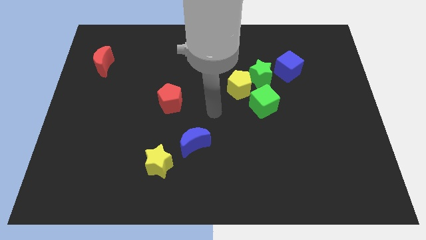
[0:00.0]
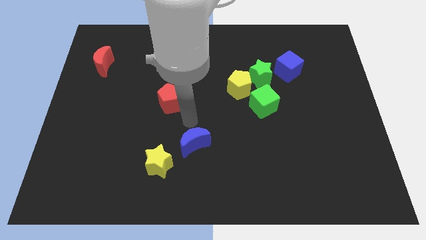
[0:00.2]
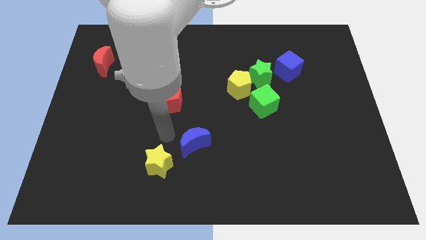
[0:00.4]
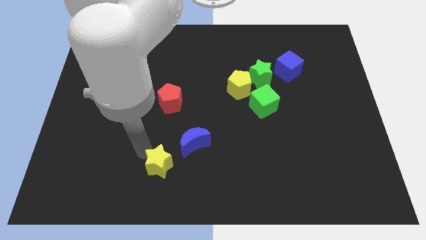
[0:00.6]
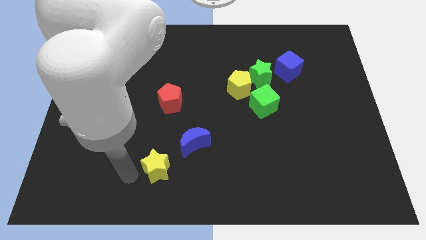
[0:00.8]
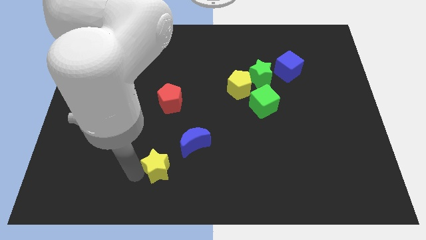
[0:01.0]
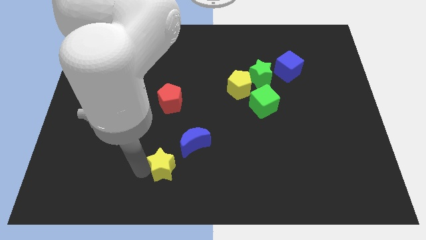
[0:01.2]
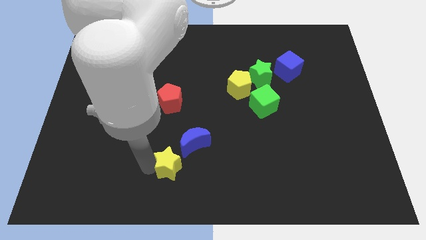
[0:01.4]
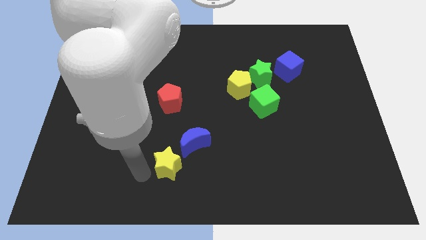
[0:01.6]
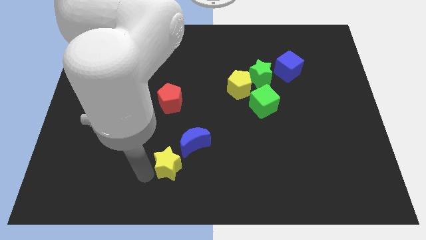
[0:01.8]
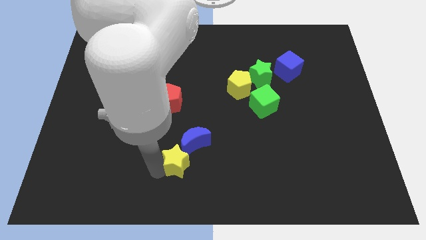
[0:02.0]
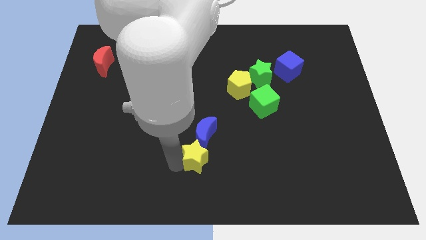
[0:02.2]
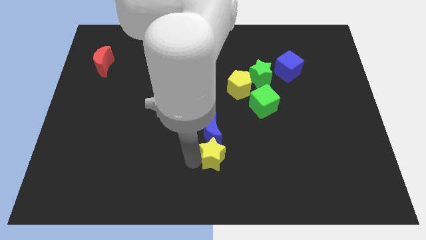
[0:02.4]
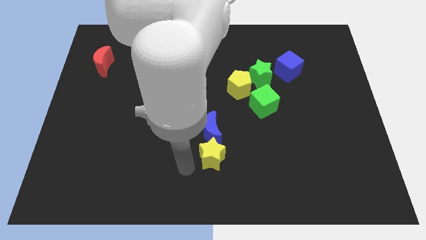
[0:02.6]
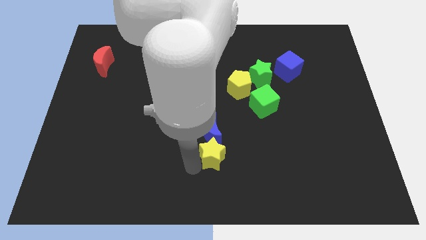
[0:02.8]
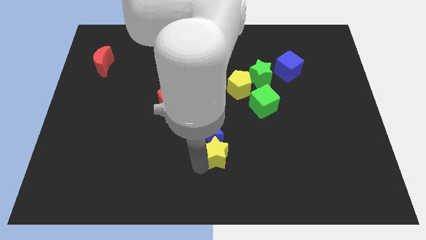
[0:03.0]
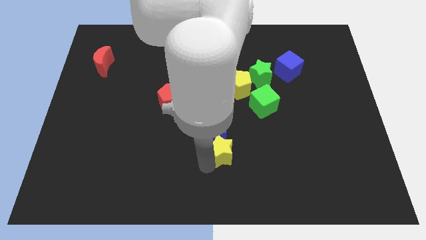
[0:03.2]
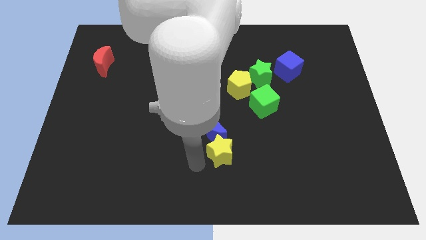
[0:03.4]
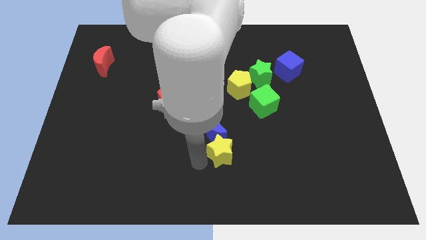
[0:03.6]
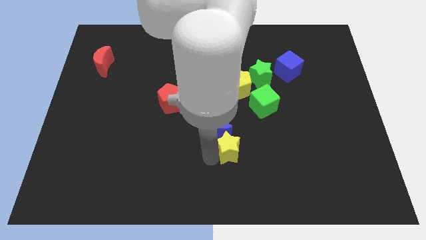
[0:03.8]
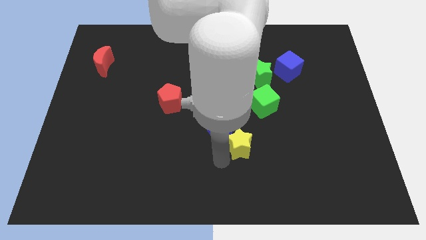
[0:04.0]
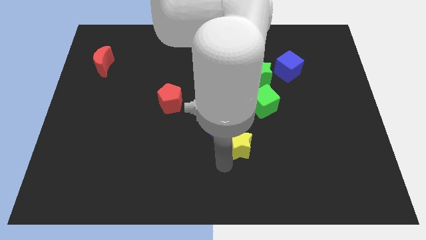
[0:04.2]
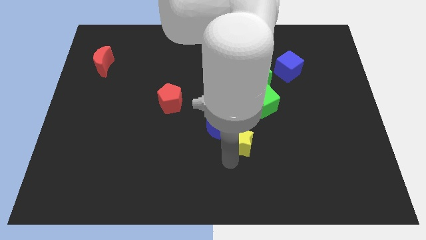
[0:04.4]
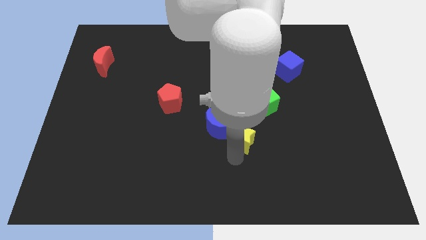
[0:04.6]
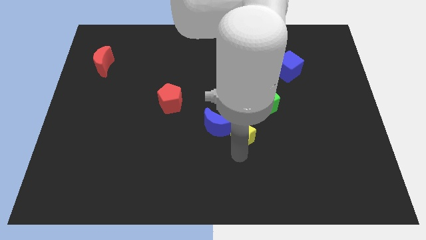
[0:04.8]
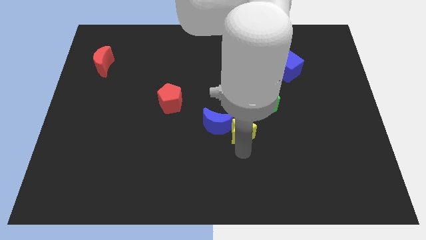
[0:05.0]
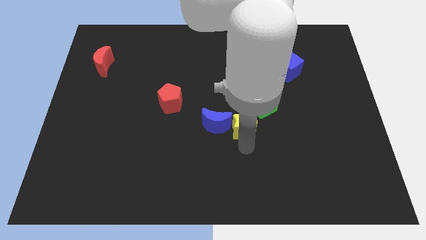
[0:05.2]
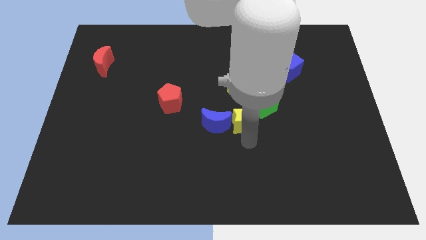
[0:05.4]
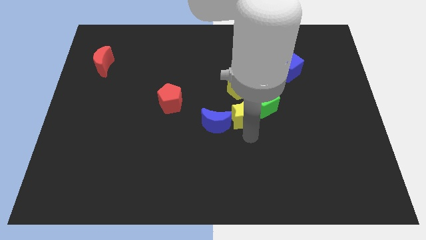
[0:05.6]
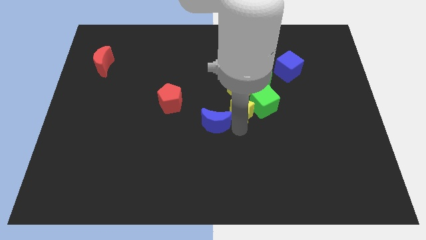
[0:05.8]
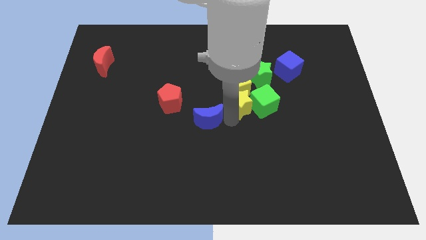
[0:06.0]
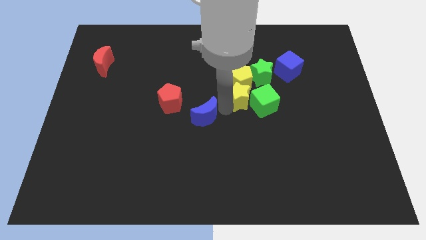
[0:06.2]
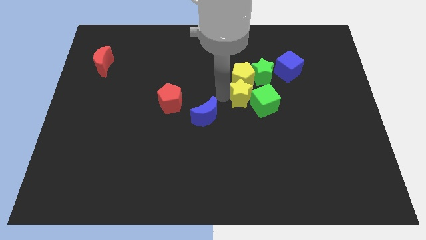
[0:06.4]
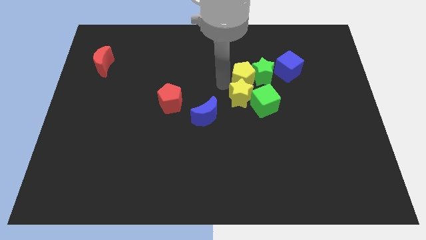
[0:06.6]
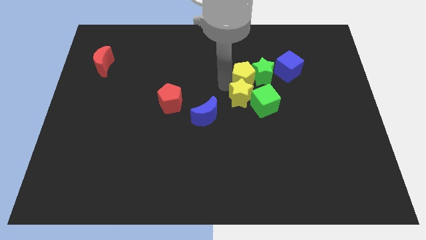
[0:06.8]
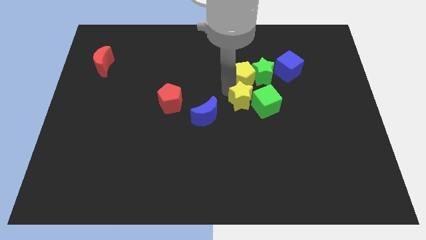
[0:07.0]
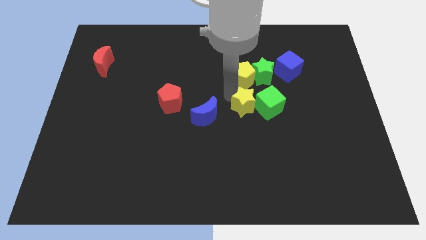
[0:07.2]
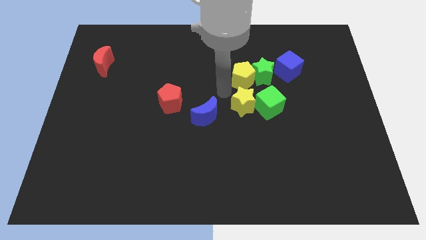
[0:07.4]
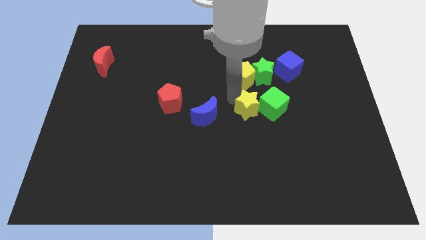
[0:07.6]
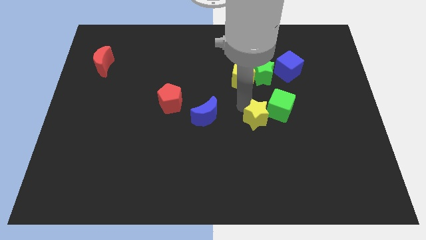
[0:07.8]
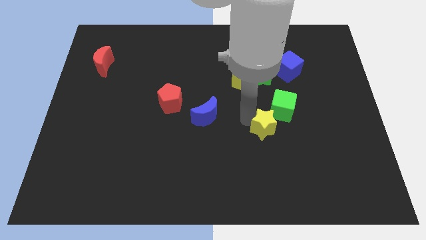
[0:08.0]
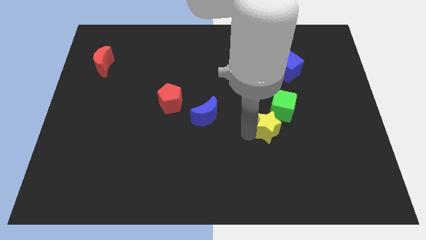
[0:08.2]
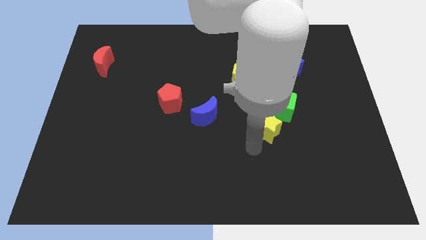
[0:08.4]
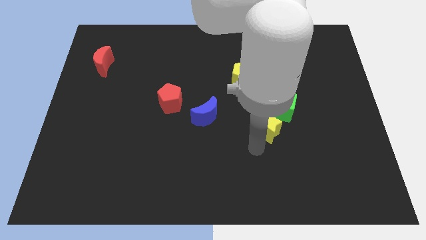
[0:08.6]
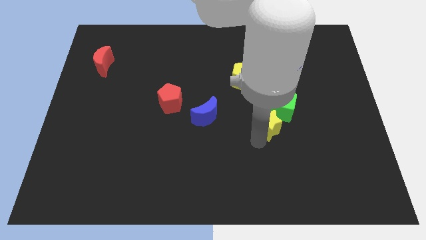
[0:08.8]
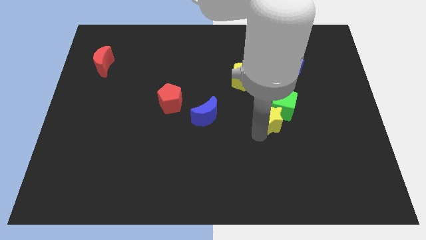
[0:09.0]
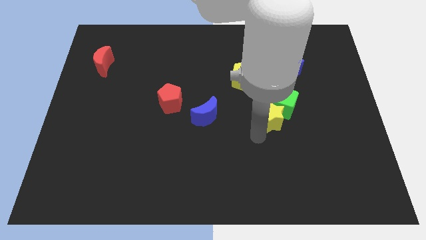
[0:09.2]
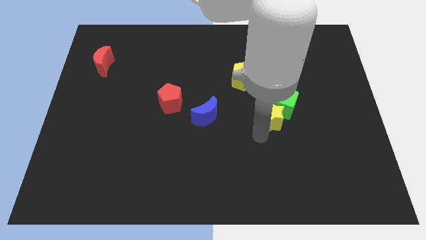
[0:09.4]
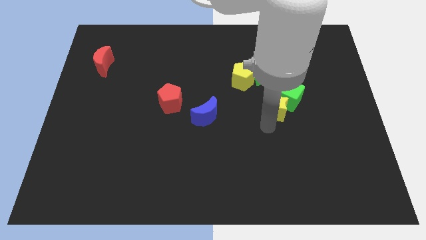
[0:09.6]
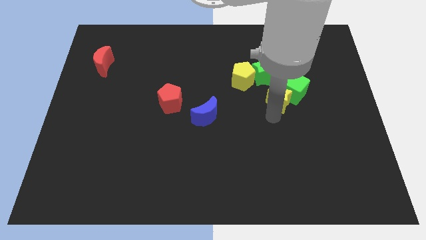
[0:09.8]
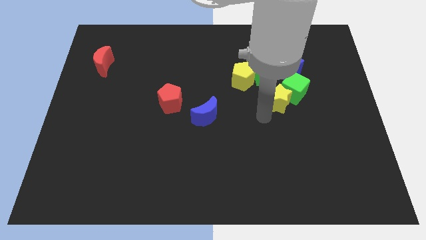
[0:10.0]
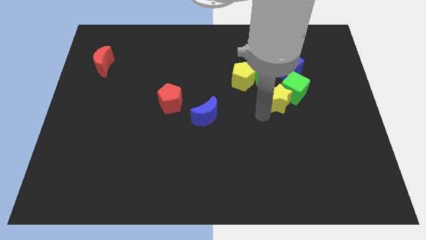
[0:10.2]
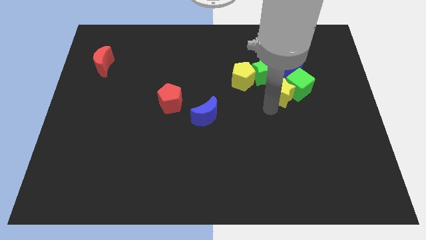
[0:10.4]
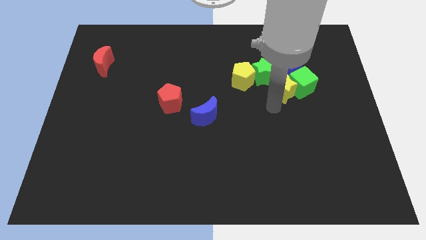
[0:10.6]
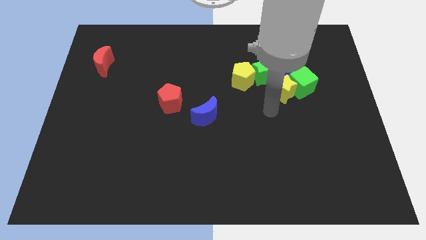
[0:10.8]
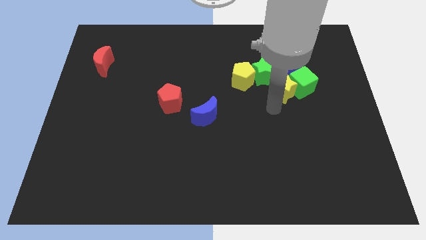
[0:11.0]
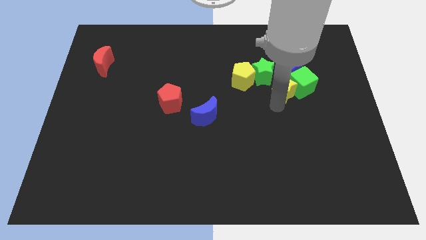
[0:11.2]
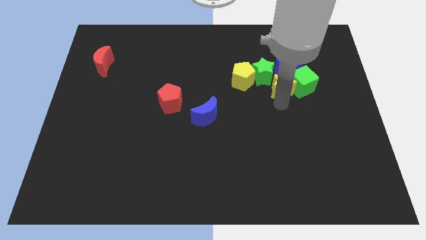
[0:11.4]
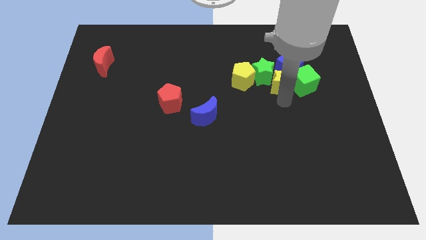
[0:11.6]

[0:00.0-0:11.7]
push the yellow star towards the blue cube
